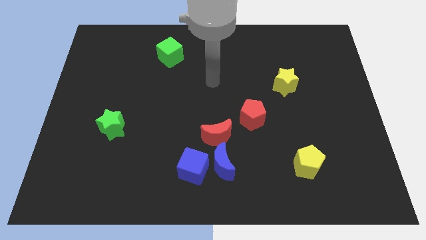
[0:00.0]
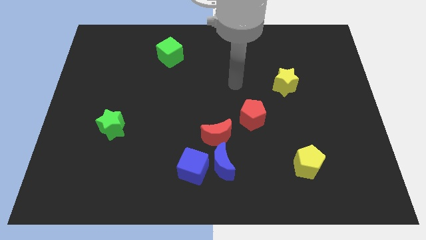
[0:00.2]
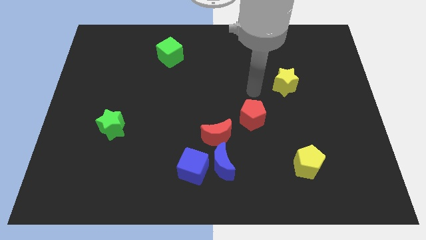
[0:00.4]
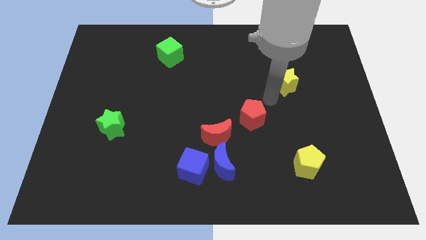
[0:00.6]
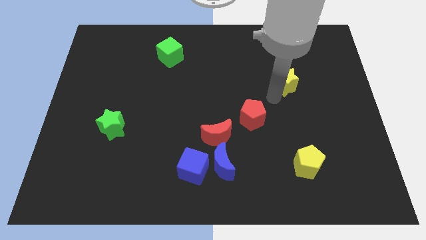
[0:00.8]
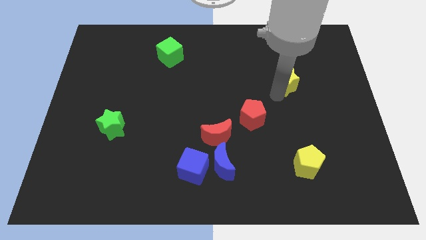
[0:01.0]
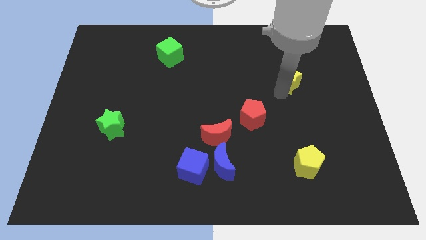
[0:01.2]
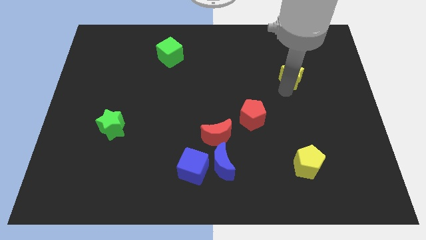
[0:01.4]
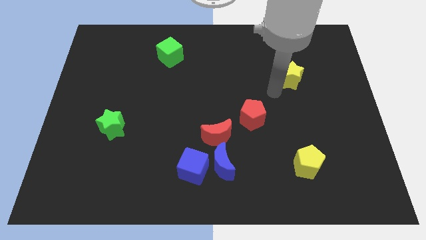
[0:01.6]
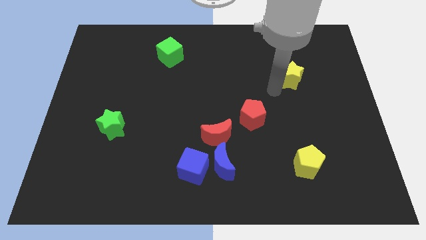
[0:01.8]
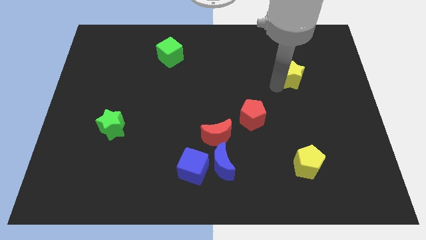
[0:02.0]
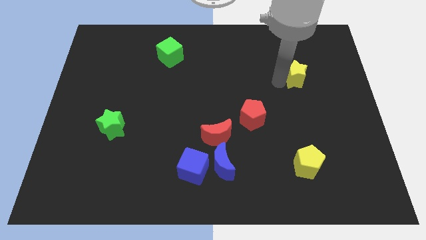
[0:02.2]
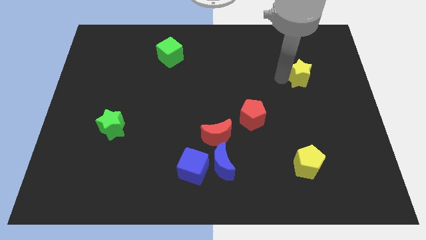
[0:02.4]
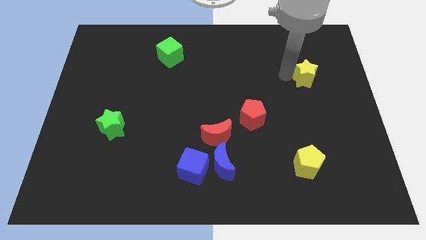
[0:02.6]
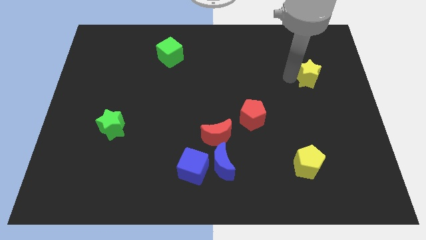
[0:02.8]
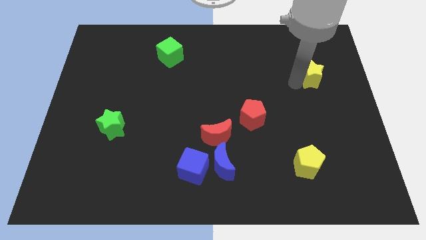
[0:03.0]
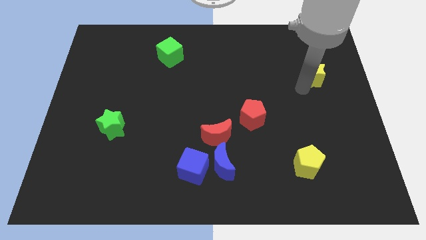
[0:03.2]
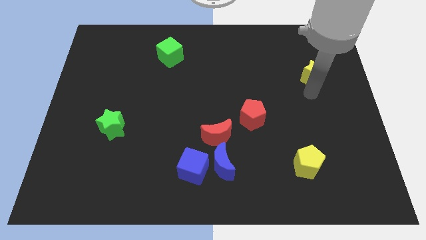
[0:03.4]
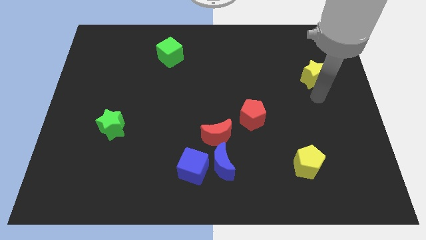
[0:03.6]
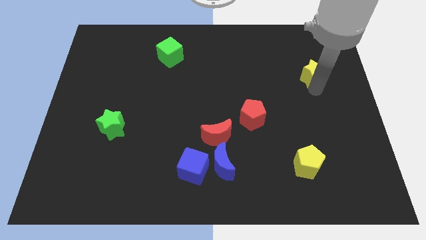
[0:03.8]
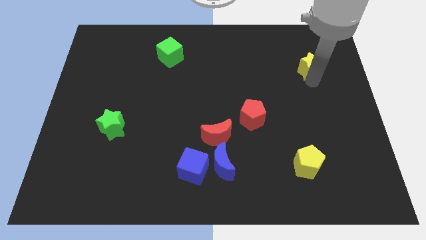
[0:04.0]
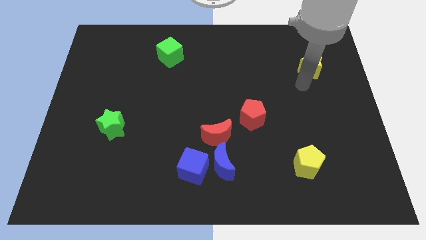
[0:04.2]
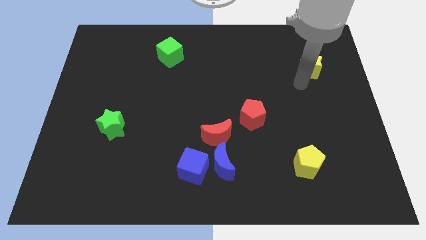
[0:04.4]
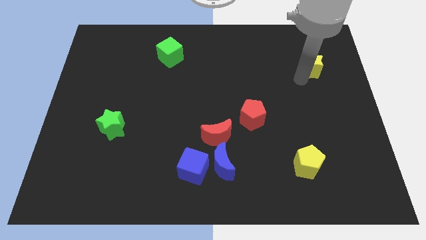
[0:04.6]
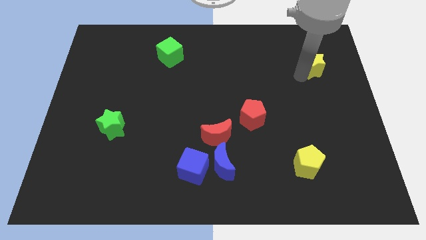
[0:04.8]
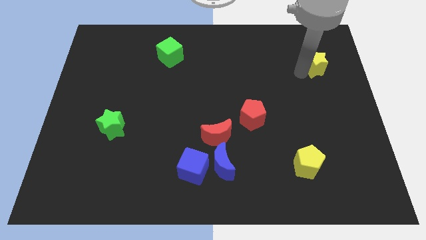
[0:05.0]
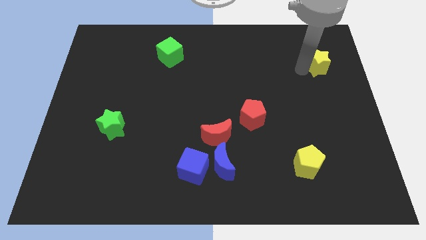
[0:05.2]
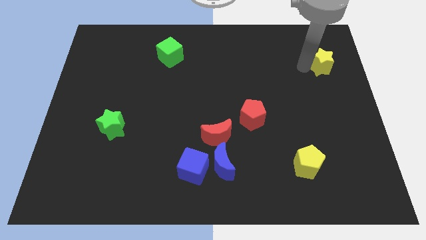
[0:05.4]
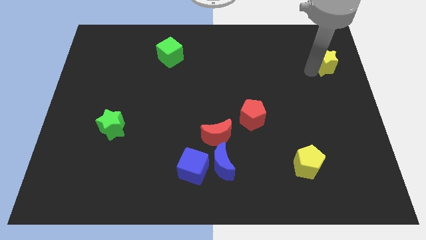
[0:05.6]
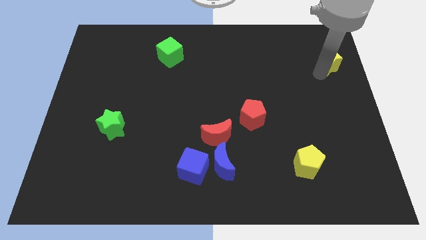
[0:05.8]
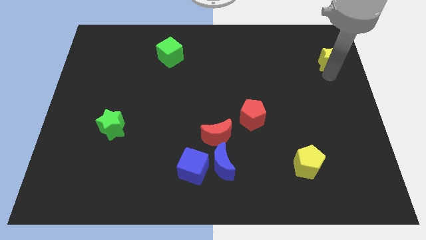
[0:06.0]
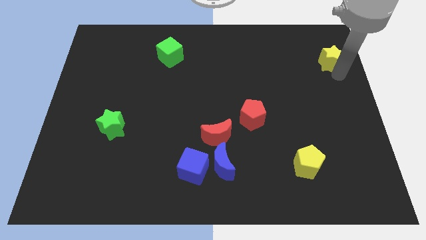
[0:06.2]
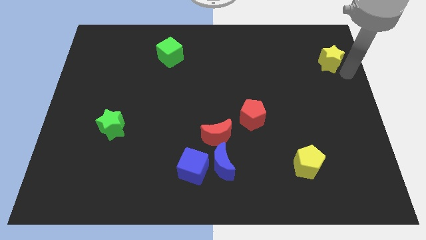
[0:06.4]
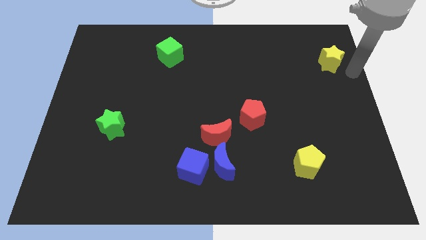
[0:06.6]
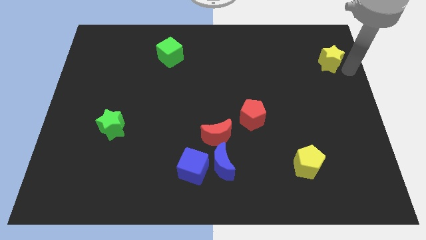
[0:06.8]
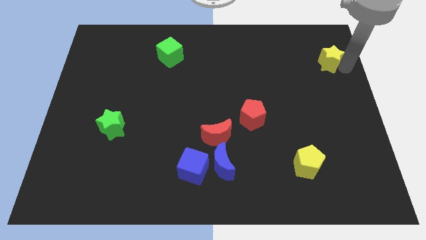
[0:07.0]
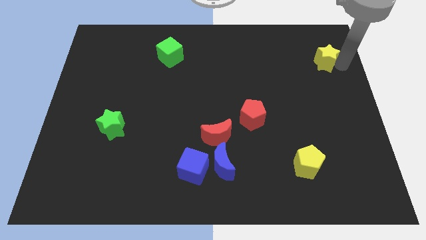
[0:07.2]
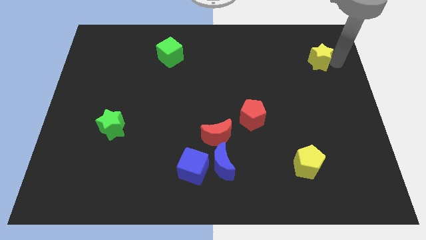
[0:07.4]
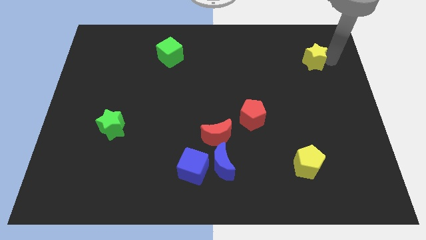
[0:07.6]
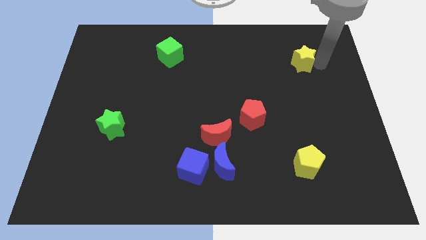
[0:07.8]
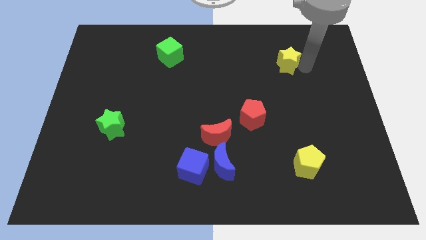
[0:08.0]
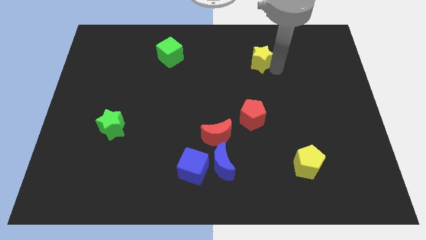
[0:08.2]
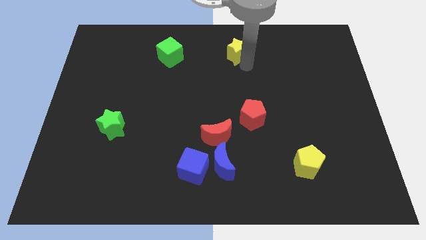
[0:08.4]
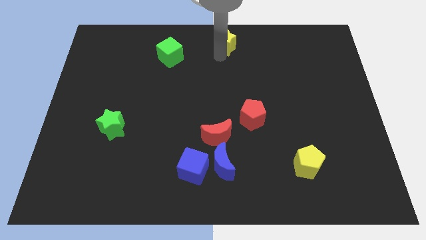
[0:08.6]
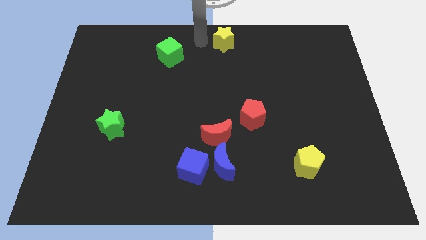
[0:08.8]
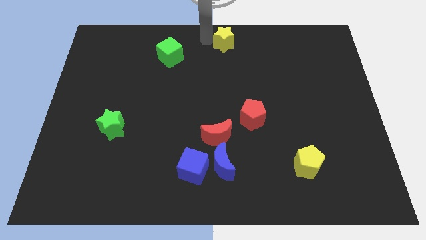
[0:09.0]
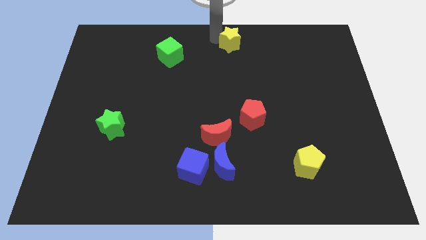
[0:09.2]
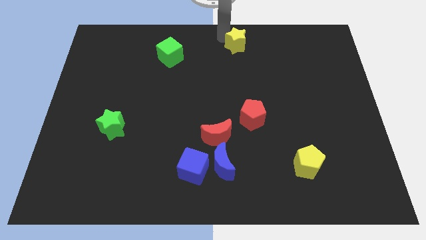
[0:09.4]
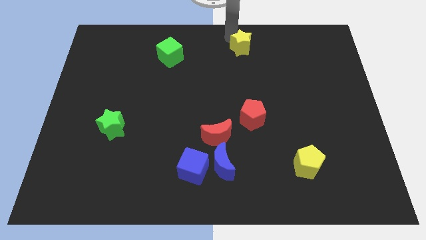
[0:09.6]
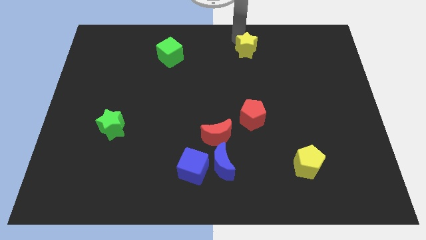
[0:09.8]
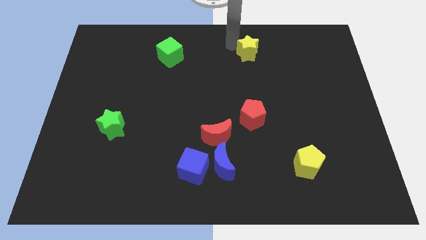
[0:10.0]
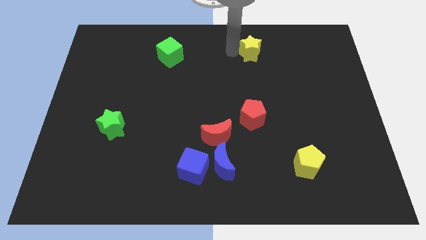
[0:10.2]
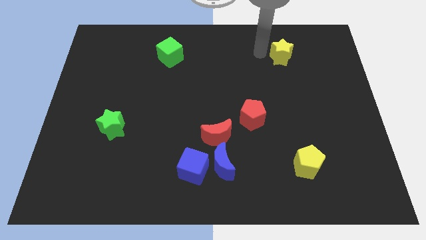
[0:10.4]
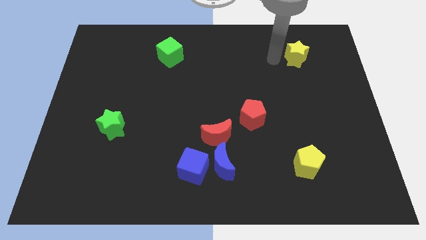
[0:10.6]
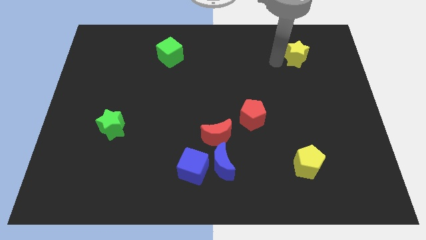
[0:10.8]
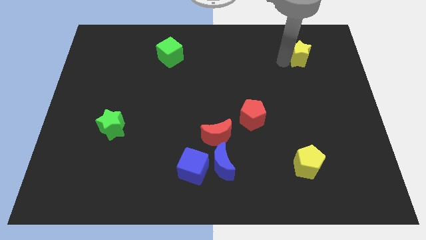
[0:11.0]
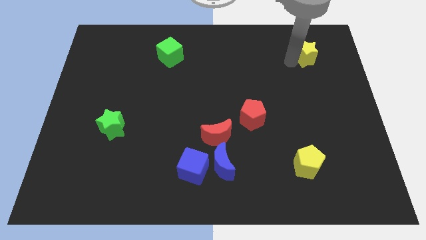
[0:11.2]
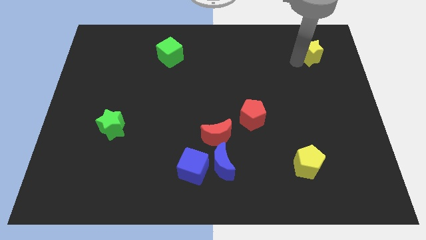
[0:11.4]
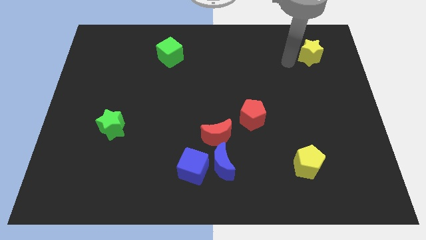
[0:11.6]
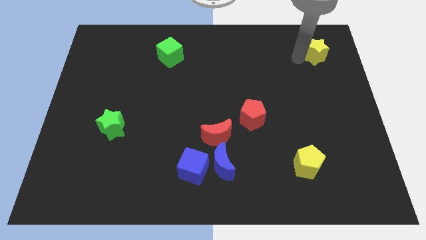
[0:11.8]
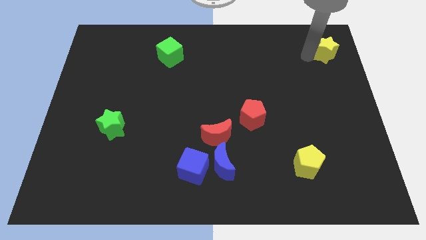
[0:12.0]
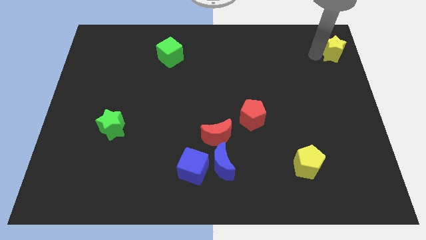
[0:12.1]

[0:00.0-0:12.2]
move the yellow star to the upper right corner

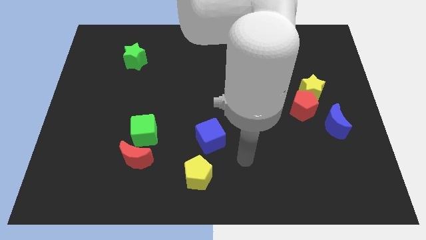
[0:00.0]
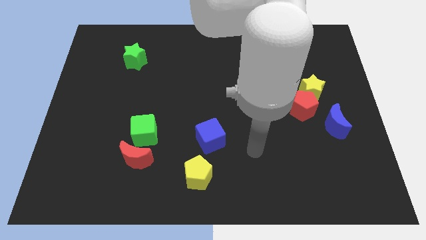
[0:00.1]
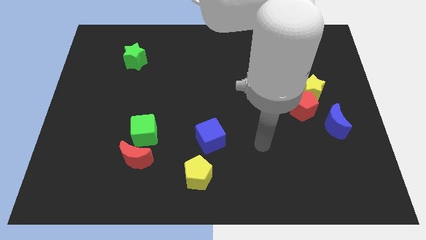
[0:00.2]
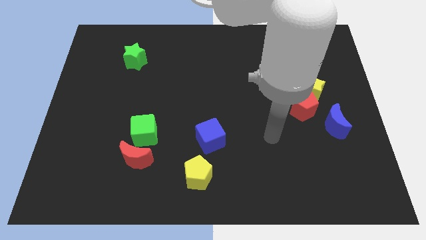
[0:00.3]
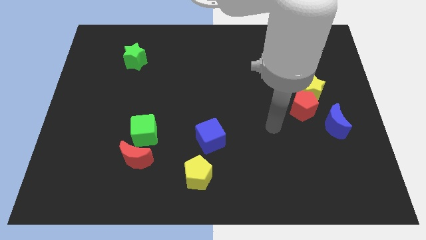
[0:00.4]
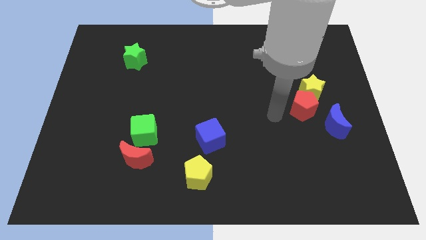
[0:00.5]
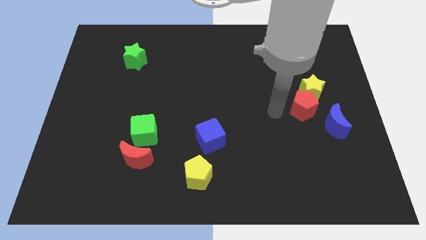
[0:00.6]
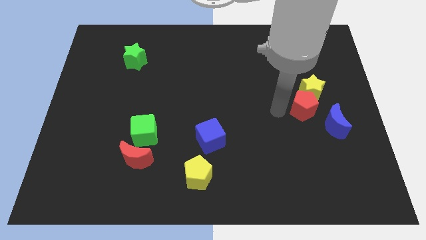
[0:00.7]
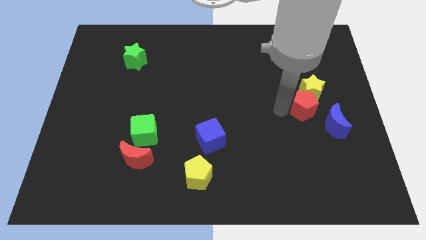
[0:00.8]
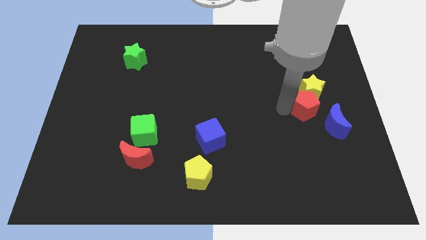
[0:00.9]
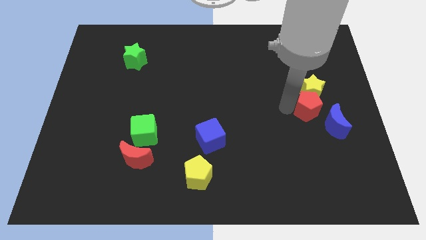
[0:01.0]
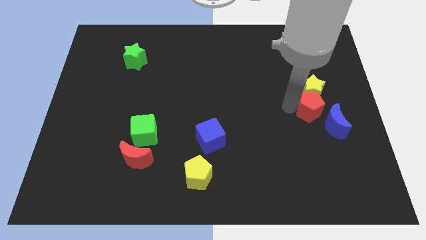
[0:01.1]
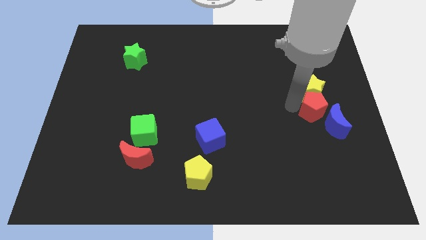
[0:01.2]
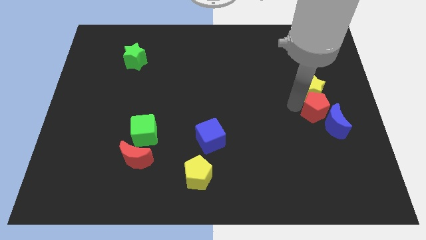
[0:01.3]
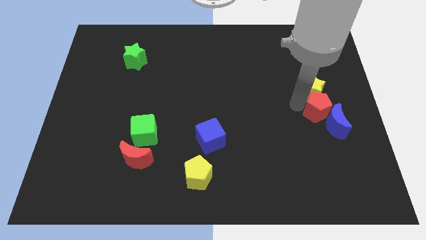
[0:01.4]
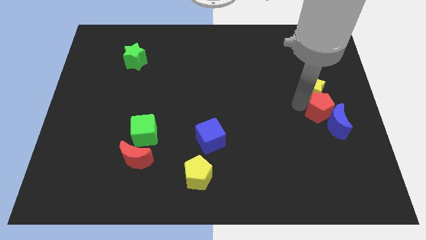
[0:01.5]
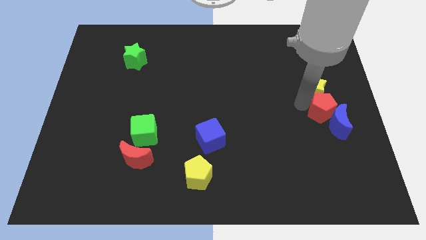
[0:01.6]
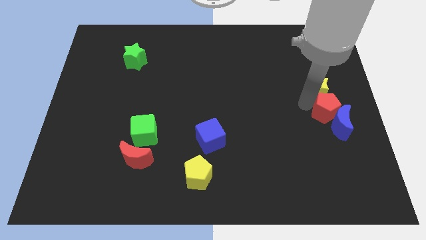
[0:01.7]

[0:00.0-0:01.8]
slide the red pentagon to the center right
